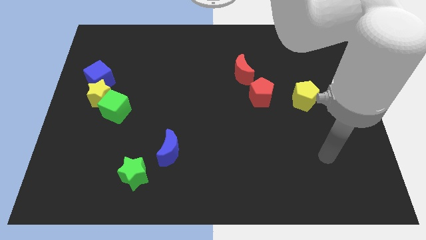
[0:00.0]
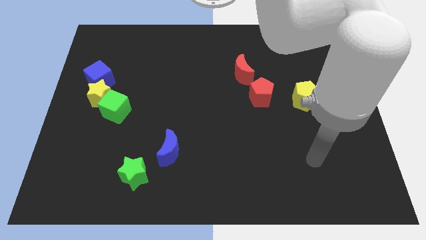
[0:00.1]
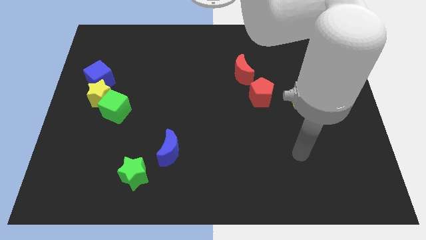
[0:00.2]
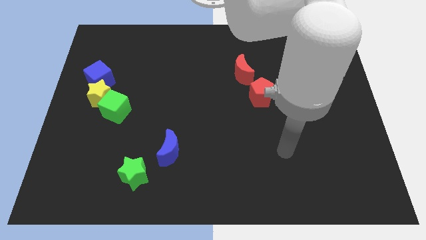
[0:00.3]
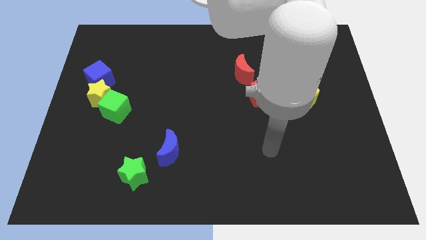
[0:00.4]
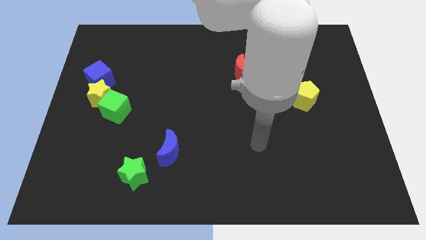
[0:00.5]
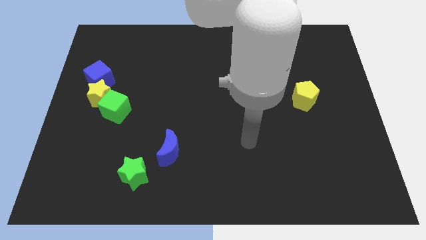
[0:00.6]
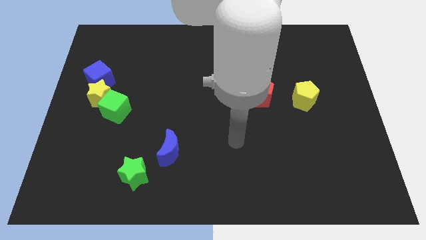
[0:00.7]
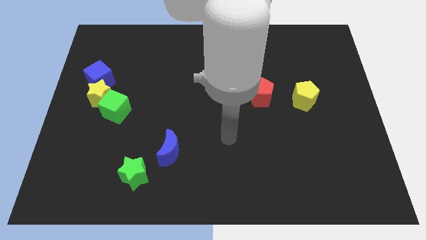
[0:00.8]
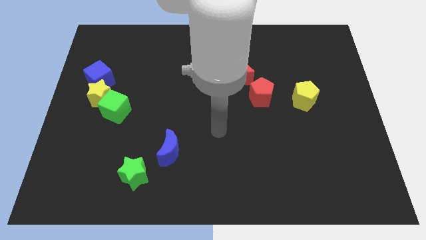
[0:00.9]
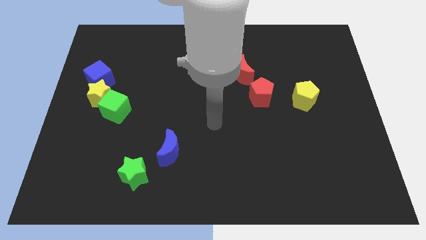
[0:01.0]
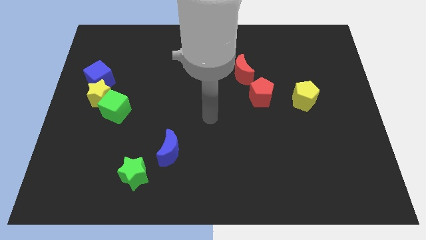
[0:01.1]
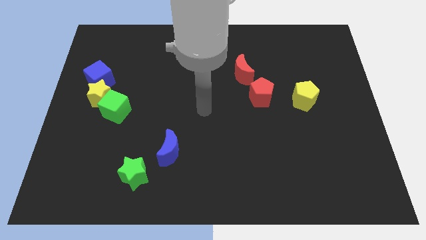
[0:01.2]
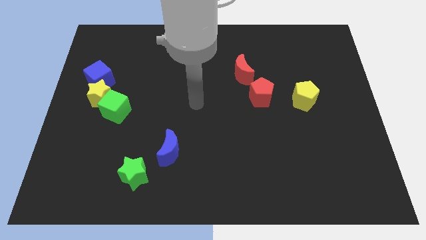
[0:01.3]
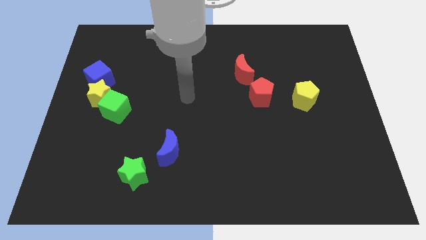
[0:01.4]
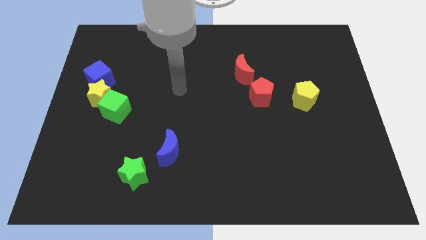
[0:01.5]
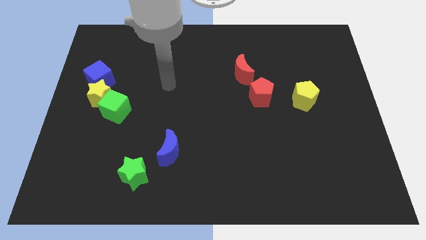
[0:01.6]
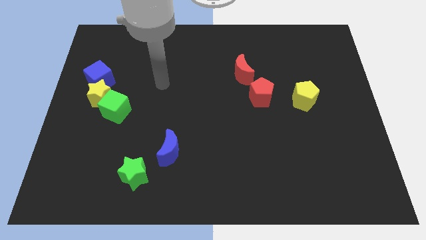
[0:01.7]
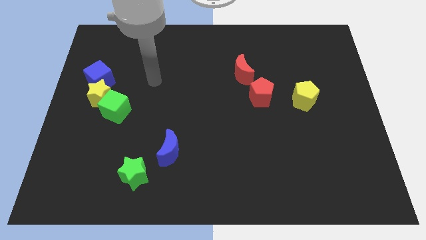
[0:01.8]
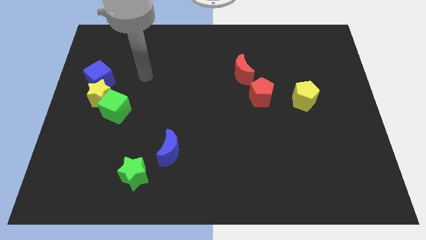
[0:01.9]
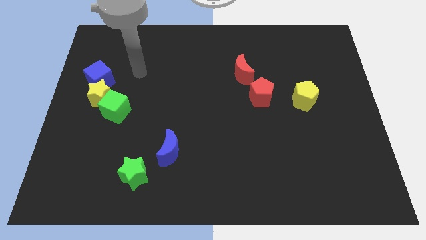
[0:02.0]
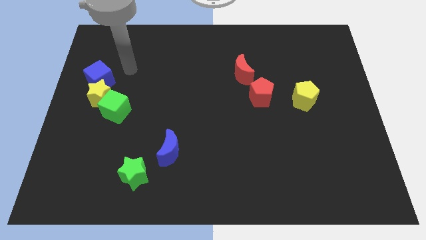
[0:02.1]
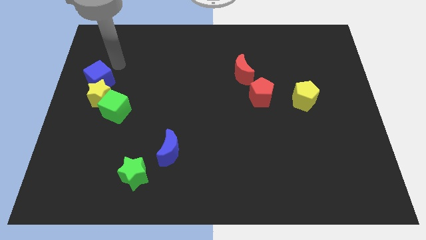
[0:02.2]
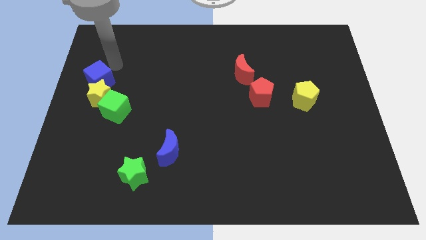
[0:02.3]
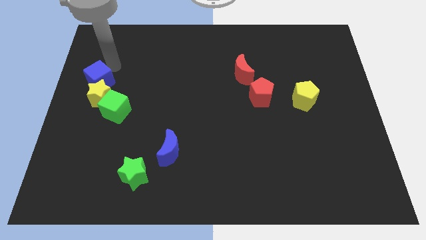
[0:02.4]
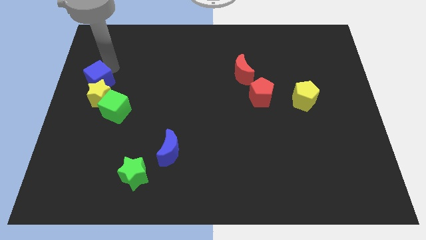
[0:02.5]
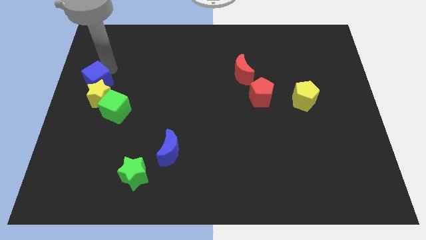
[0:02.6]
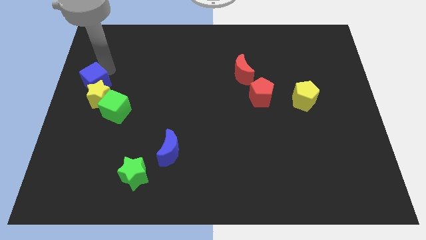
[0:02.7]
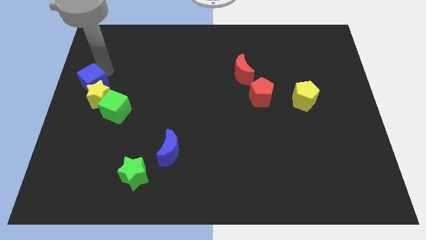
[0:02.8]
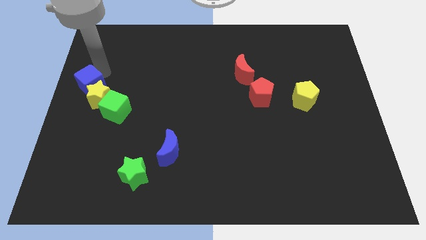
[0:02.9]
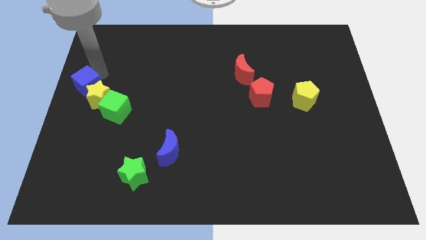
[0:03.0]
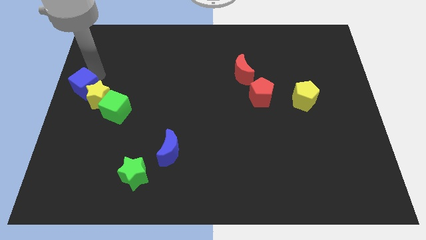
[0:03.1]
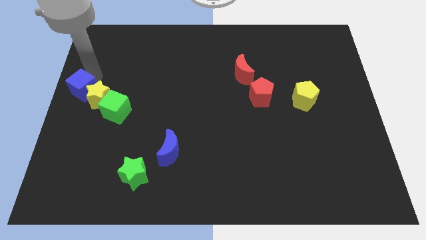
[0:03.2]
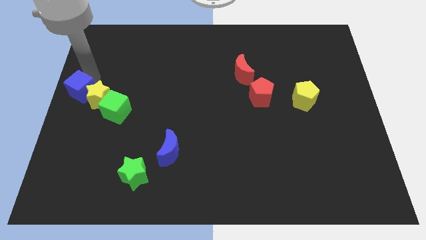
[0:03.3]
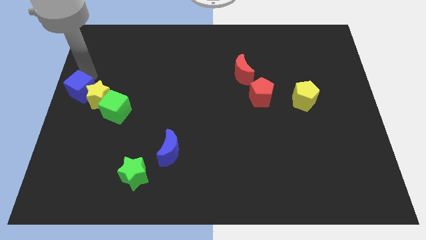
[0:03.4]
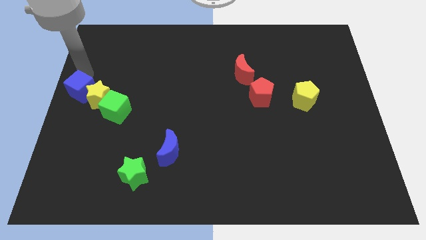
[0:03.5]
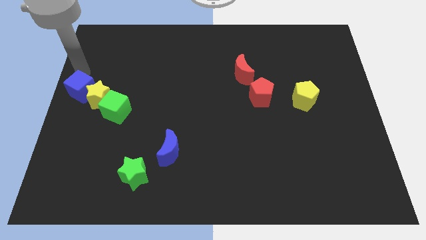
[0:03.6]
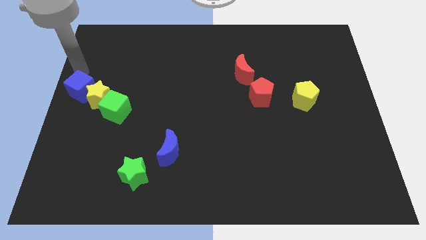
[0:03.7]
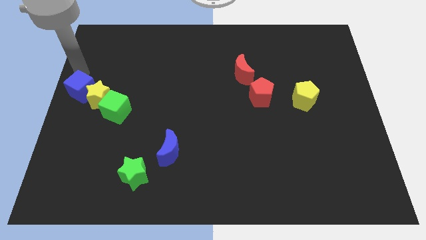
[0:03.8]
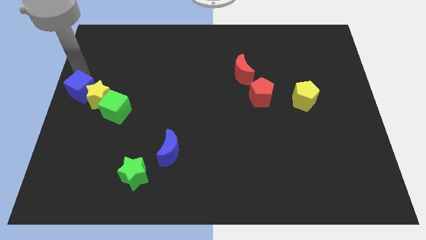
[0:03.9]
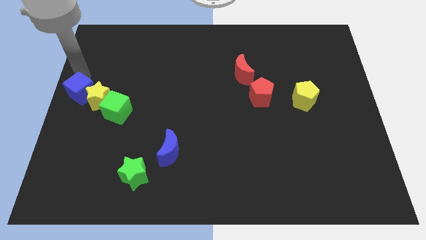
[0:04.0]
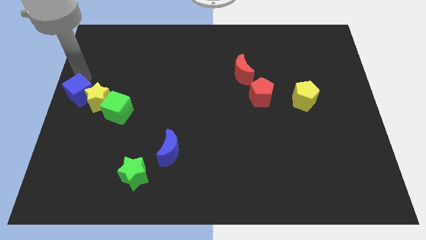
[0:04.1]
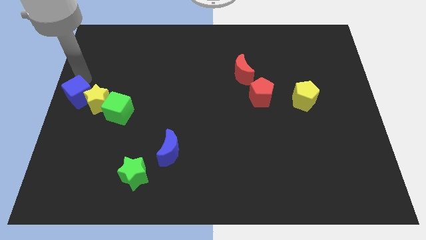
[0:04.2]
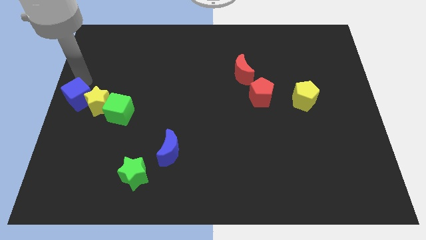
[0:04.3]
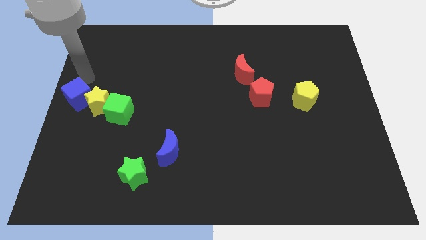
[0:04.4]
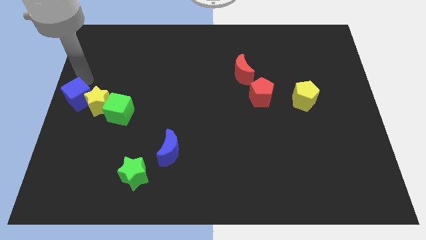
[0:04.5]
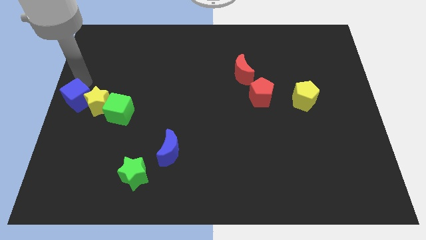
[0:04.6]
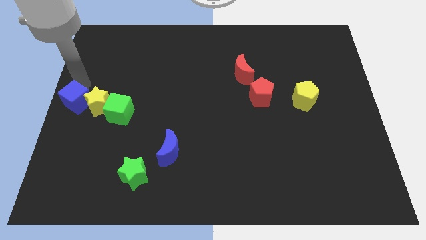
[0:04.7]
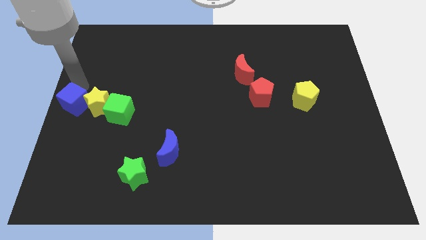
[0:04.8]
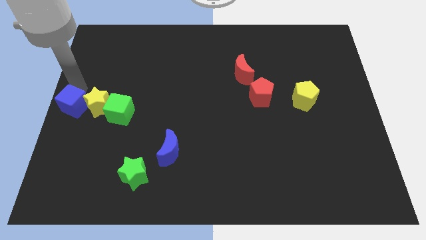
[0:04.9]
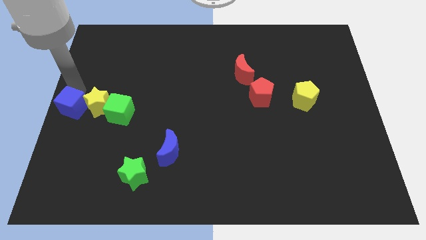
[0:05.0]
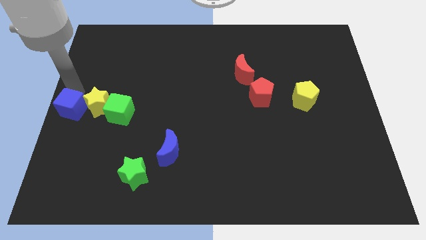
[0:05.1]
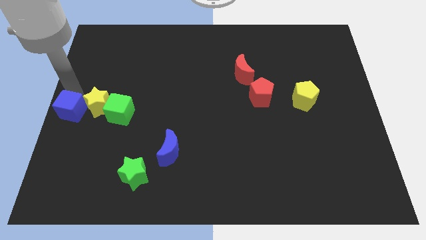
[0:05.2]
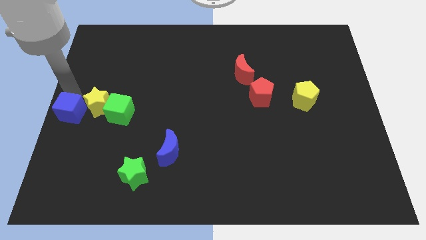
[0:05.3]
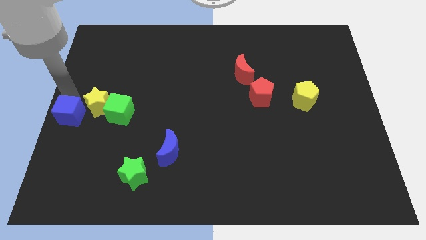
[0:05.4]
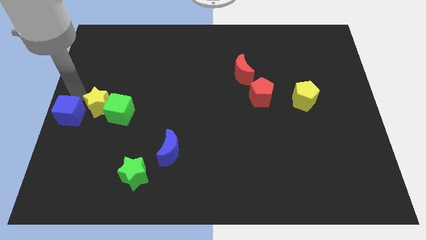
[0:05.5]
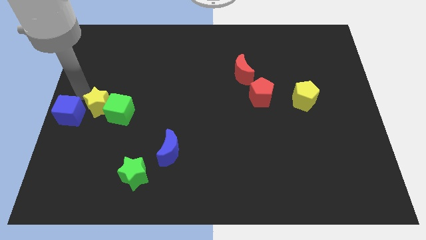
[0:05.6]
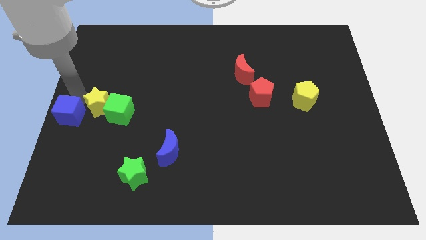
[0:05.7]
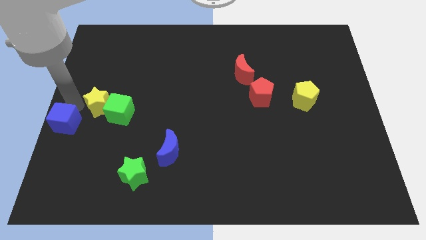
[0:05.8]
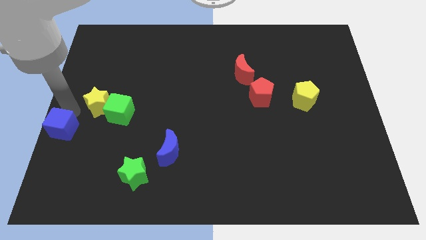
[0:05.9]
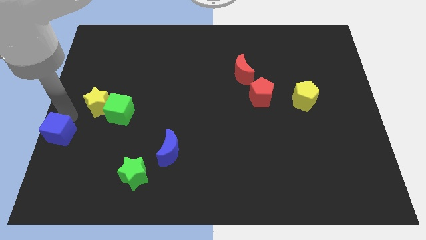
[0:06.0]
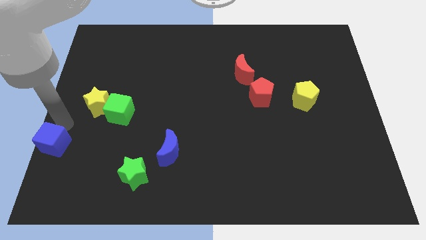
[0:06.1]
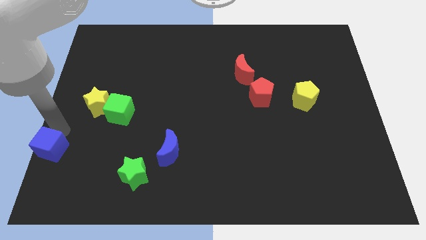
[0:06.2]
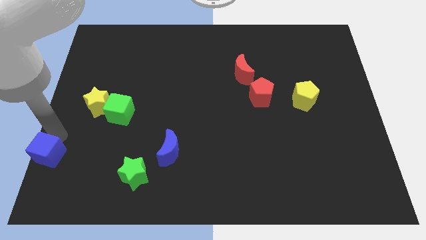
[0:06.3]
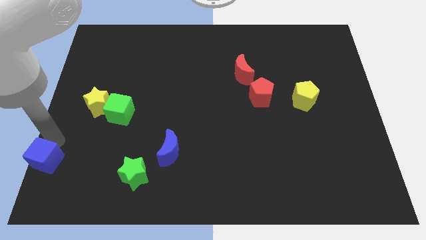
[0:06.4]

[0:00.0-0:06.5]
push the blue cube to the bottom left

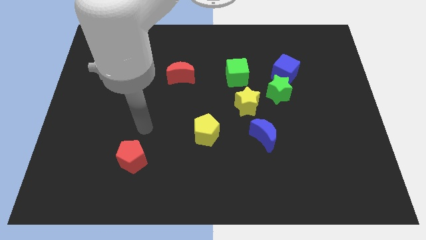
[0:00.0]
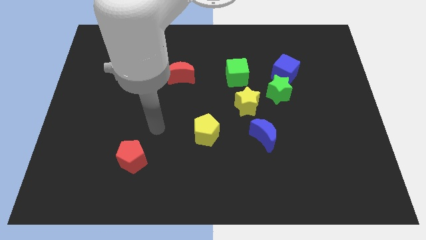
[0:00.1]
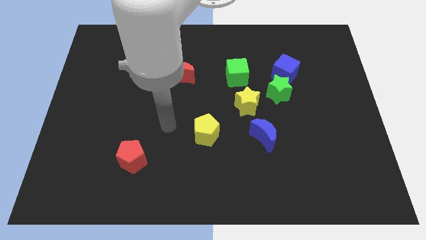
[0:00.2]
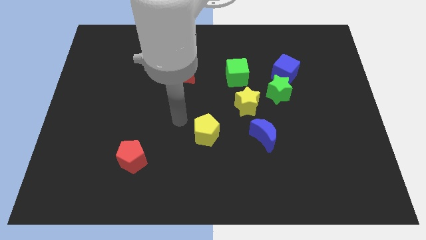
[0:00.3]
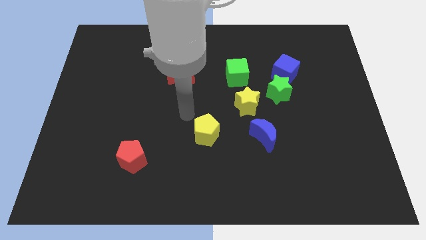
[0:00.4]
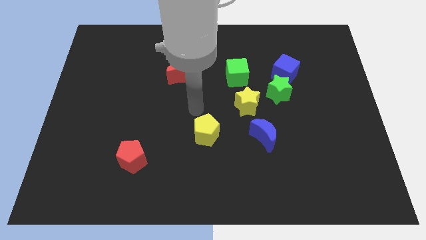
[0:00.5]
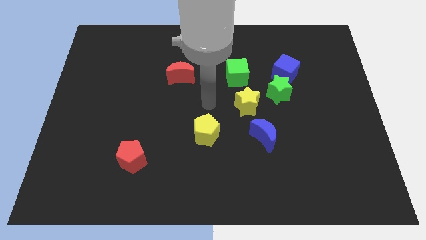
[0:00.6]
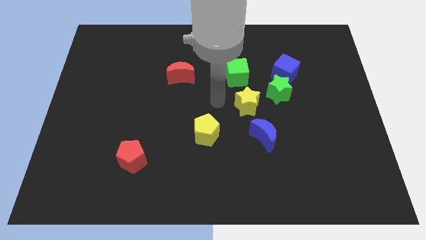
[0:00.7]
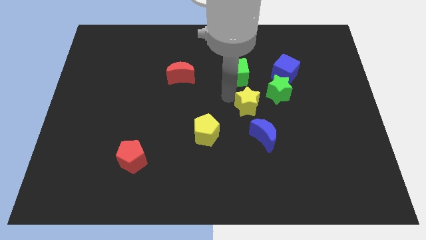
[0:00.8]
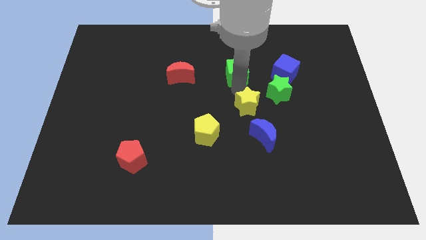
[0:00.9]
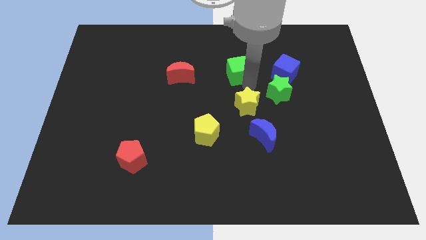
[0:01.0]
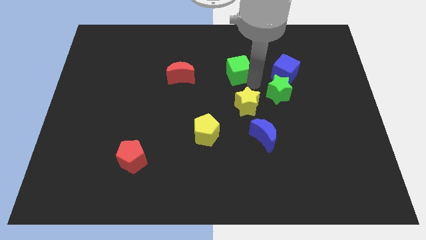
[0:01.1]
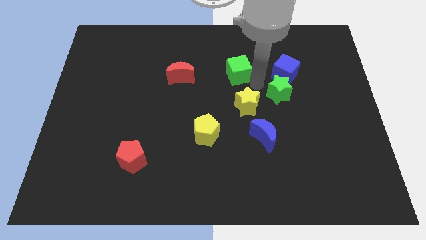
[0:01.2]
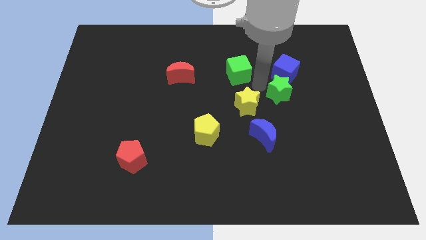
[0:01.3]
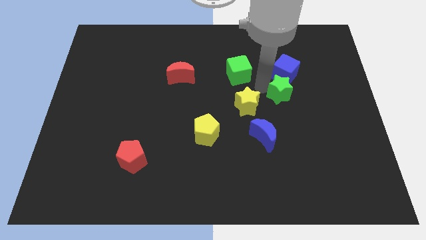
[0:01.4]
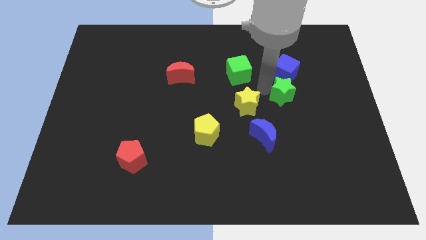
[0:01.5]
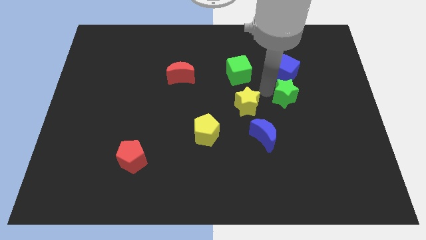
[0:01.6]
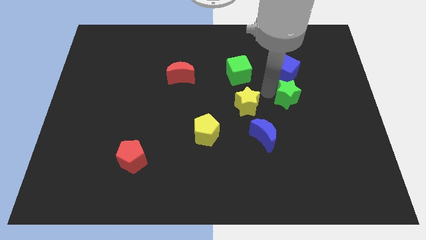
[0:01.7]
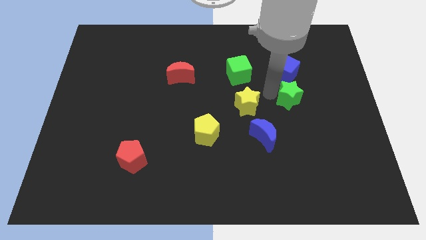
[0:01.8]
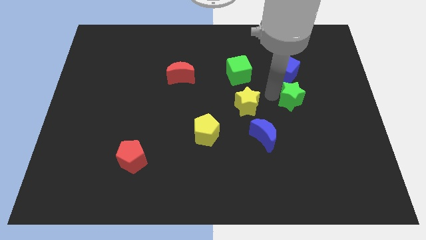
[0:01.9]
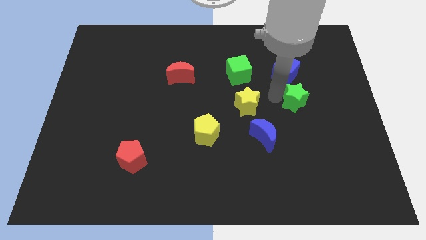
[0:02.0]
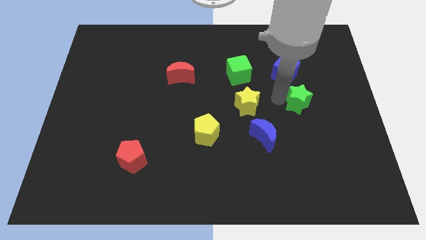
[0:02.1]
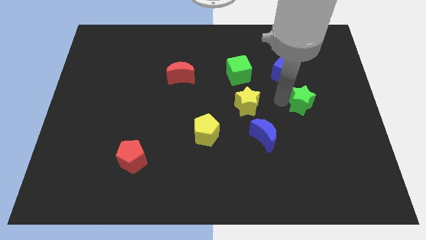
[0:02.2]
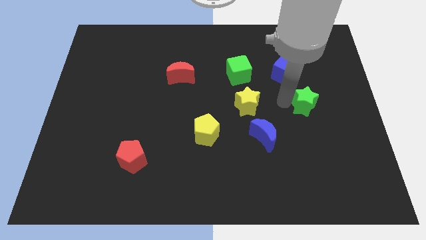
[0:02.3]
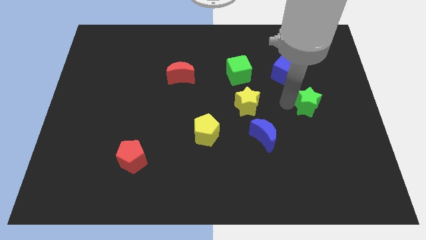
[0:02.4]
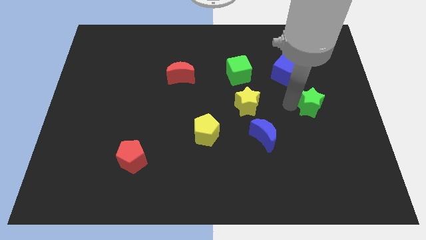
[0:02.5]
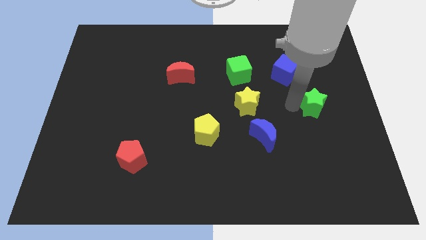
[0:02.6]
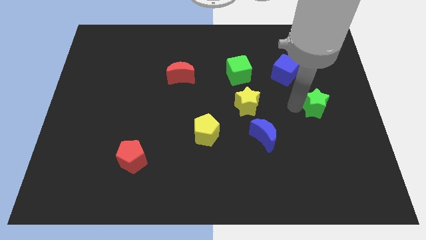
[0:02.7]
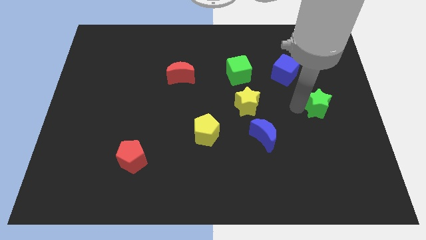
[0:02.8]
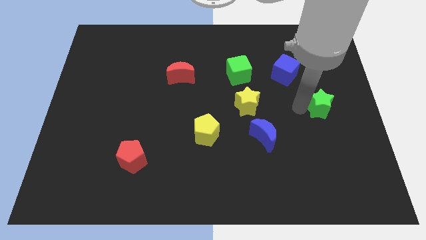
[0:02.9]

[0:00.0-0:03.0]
put the green star to the center right
